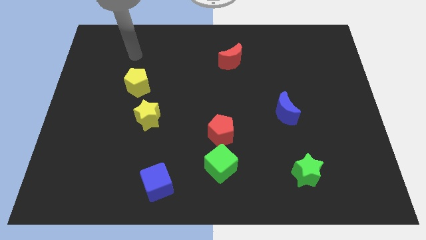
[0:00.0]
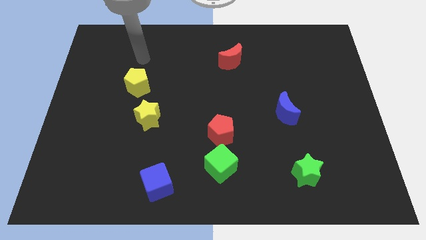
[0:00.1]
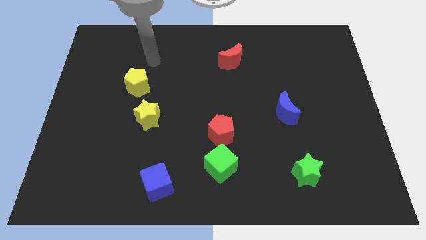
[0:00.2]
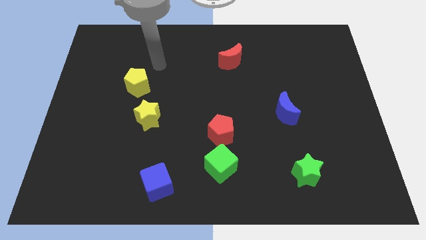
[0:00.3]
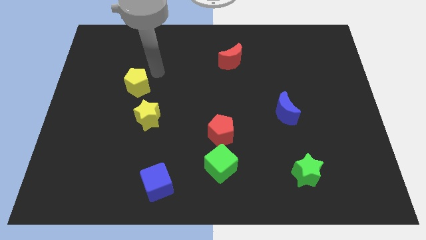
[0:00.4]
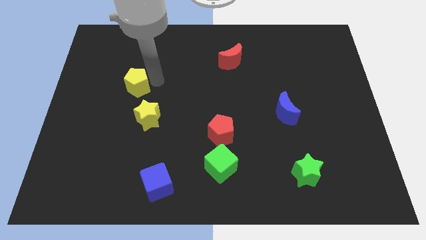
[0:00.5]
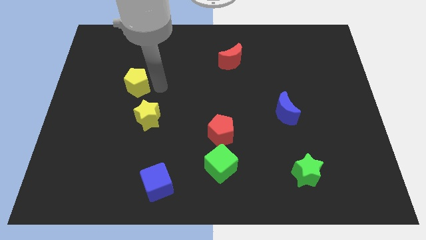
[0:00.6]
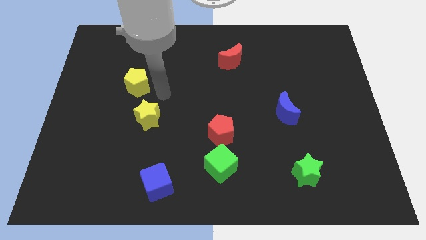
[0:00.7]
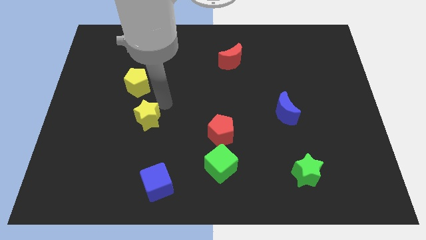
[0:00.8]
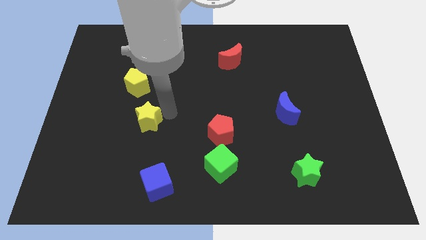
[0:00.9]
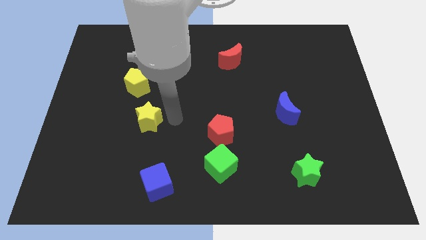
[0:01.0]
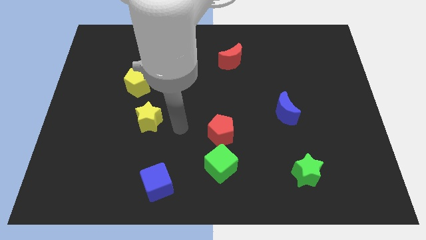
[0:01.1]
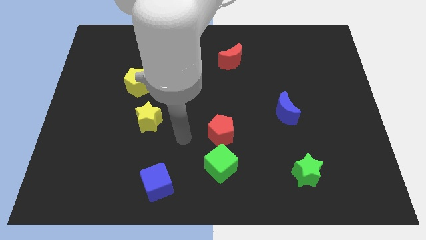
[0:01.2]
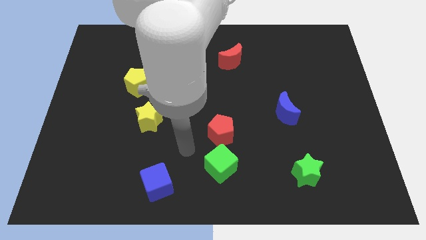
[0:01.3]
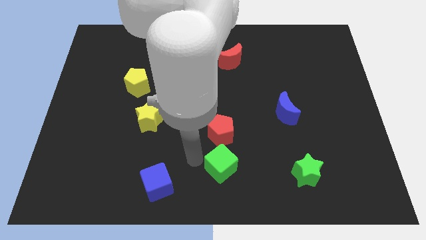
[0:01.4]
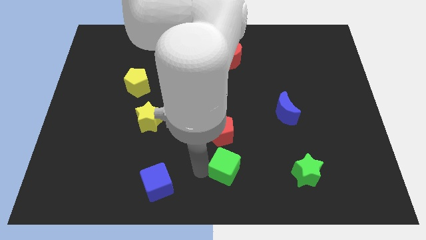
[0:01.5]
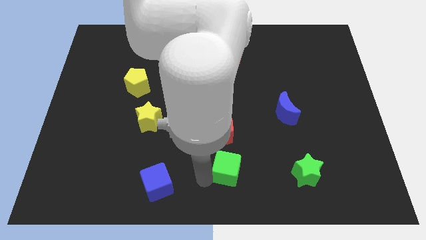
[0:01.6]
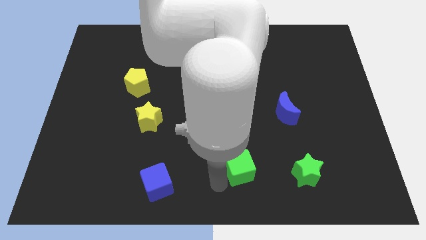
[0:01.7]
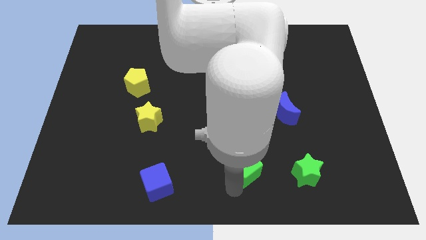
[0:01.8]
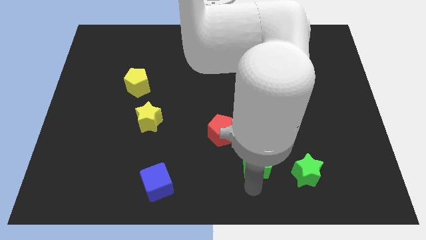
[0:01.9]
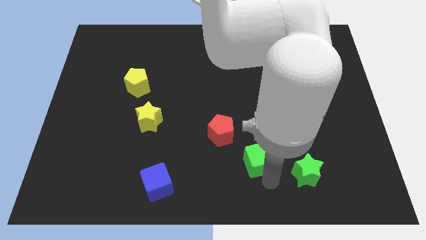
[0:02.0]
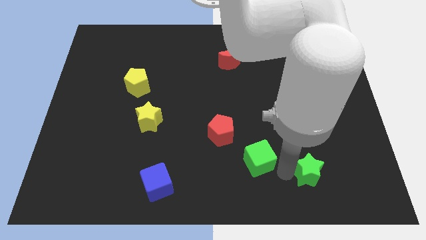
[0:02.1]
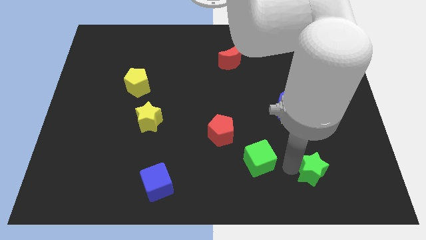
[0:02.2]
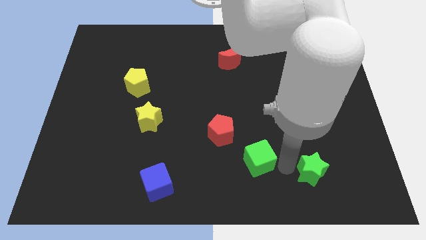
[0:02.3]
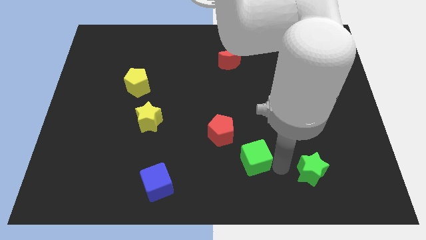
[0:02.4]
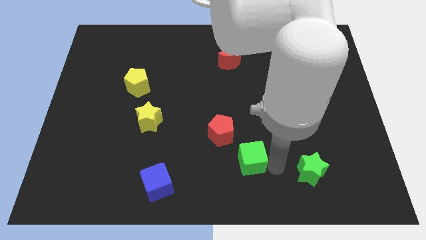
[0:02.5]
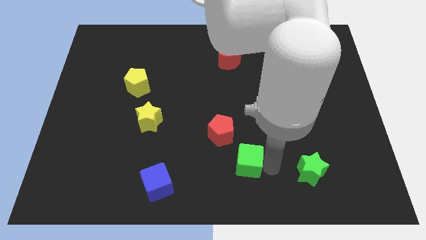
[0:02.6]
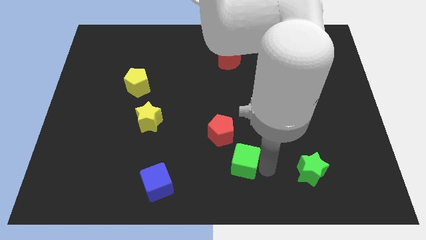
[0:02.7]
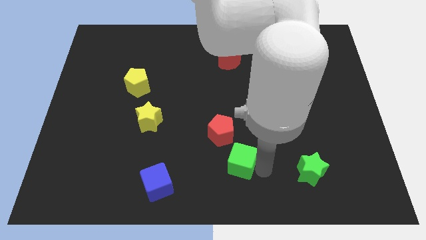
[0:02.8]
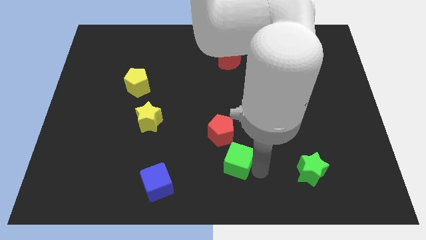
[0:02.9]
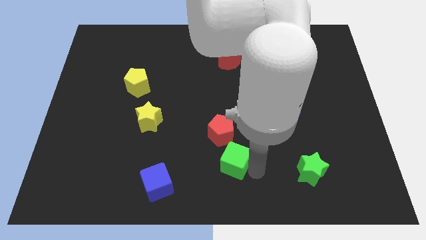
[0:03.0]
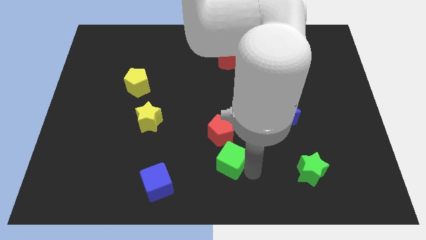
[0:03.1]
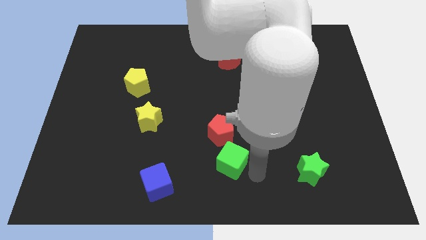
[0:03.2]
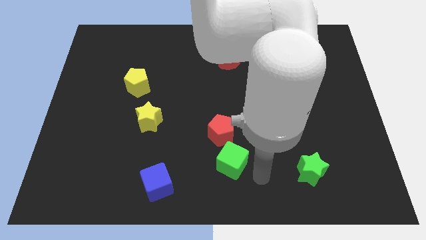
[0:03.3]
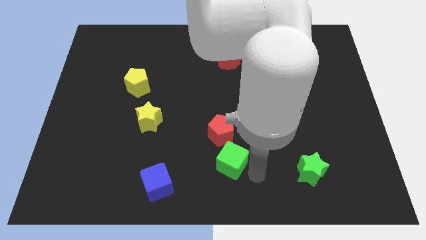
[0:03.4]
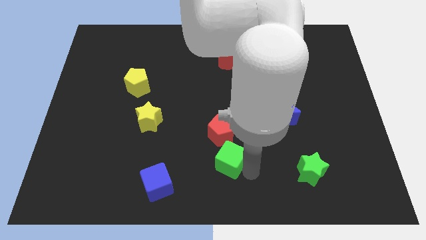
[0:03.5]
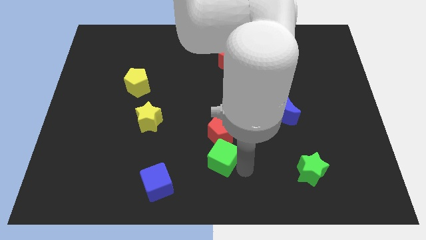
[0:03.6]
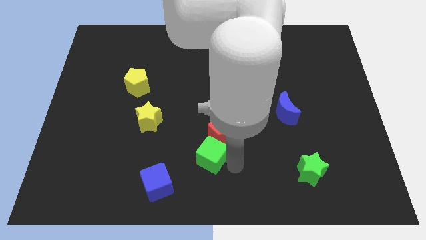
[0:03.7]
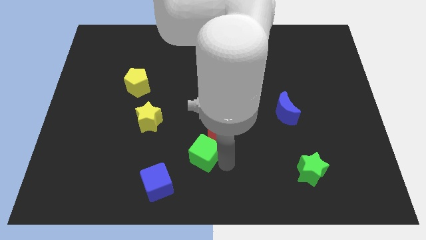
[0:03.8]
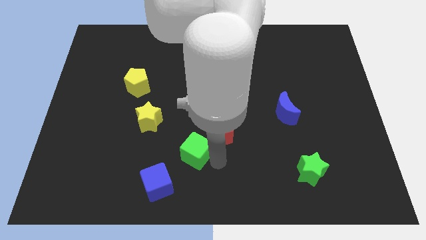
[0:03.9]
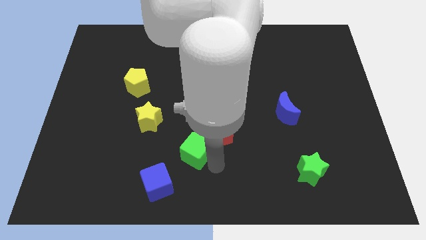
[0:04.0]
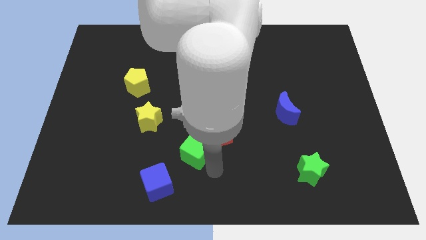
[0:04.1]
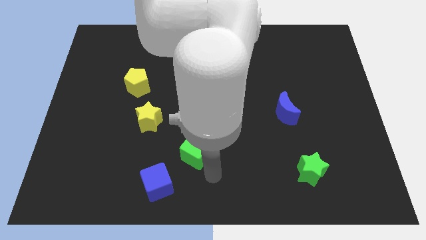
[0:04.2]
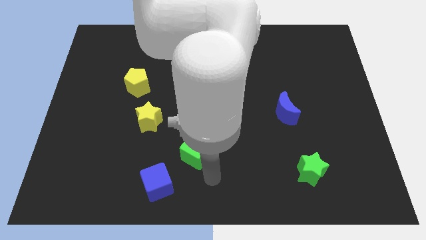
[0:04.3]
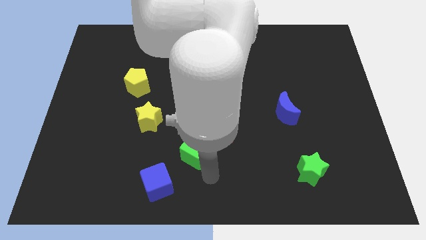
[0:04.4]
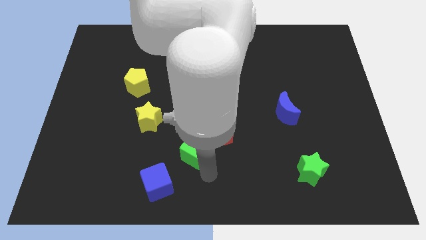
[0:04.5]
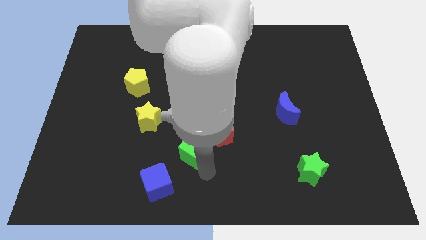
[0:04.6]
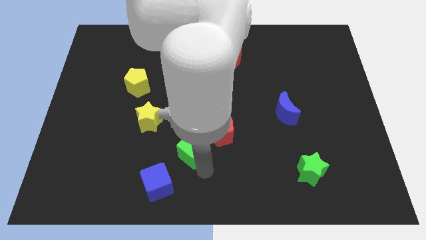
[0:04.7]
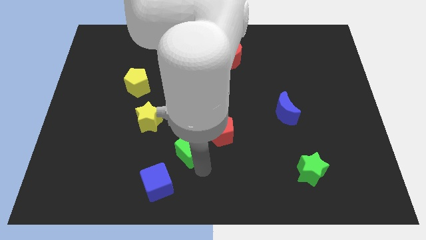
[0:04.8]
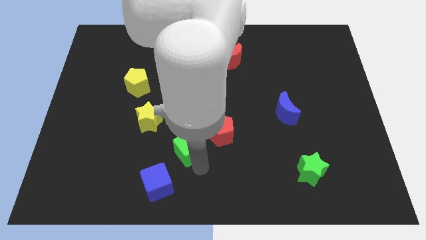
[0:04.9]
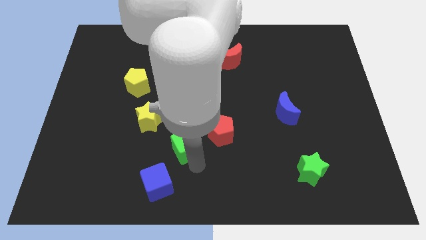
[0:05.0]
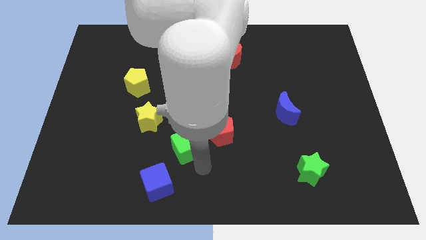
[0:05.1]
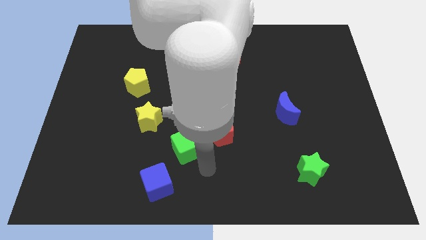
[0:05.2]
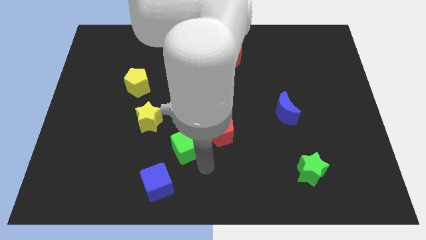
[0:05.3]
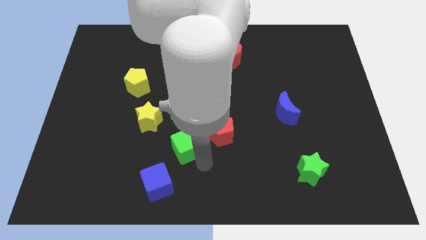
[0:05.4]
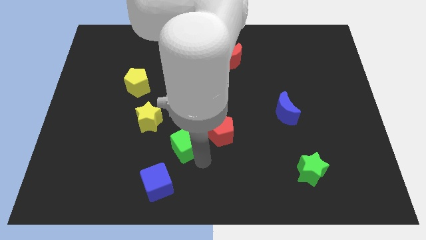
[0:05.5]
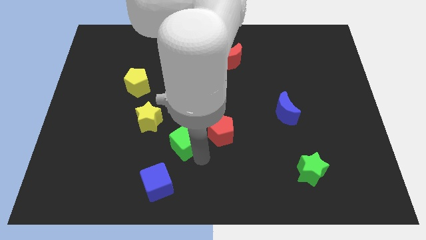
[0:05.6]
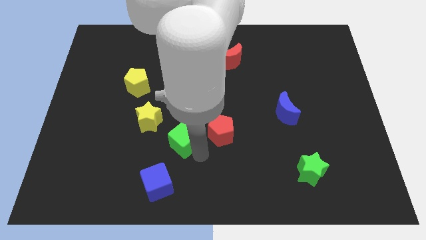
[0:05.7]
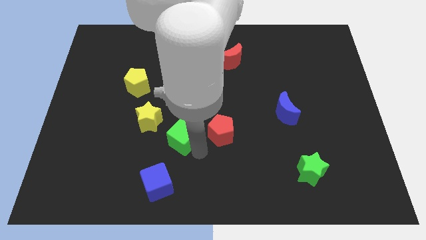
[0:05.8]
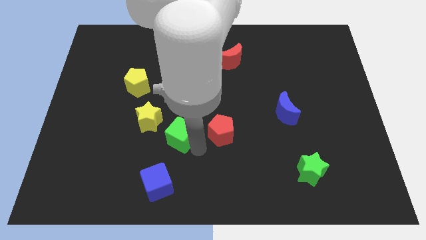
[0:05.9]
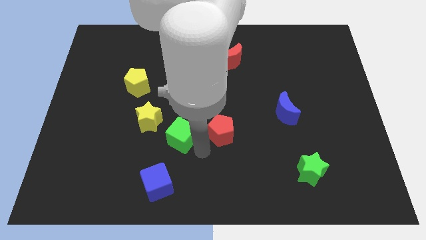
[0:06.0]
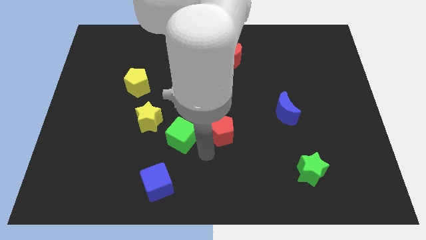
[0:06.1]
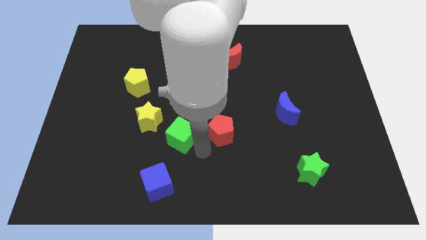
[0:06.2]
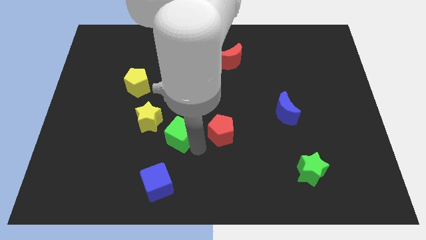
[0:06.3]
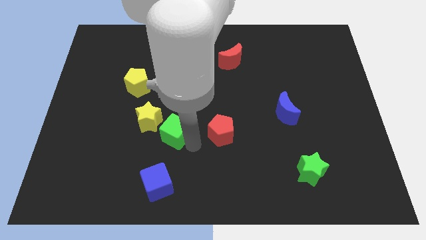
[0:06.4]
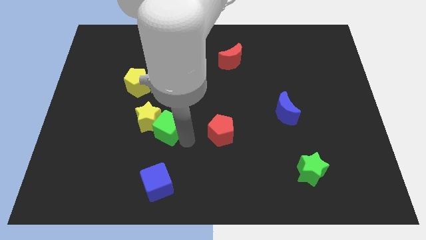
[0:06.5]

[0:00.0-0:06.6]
put the green cube close to the yellow star

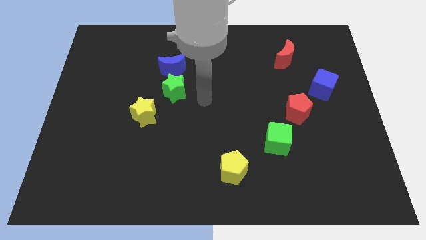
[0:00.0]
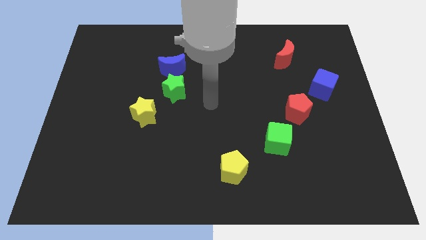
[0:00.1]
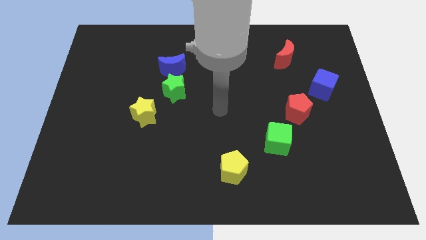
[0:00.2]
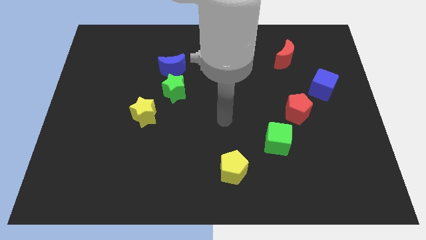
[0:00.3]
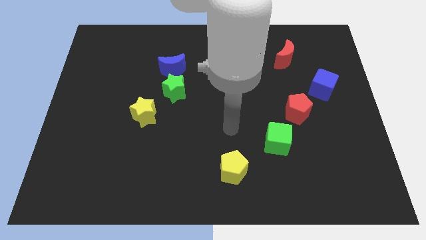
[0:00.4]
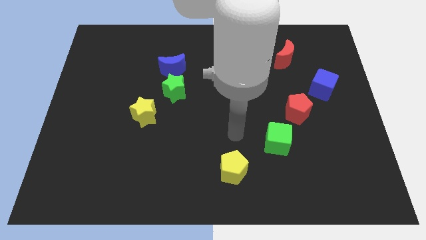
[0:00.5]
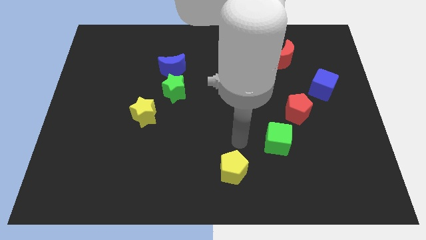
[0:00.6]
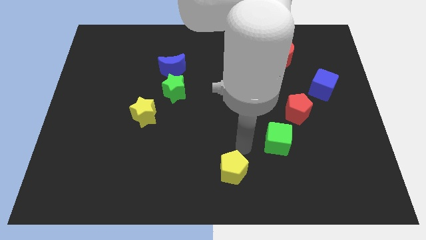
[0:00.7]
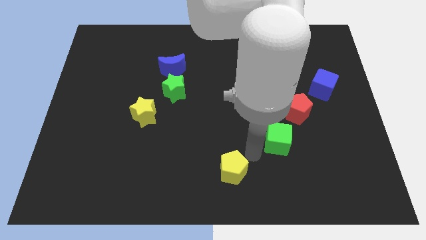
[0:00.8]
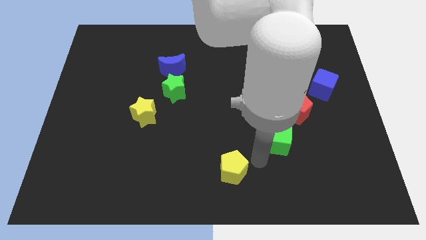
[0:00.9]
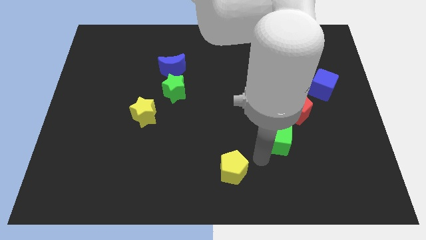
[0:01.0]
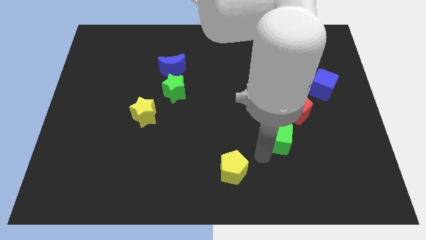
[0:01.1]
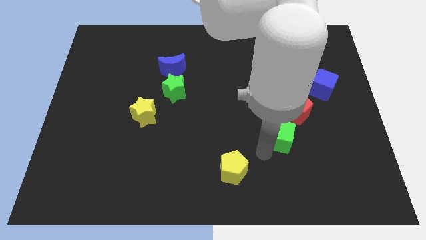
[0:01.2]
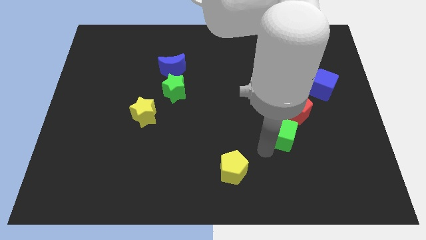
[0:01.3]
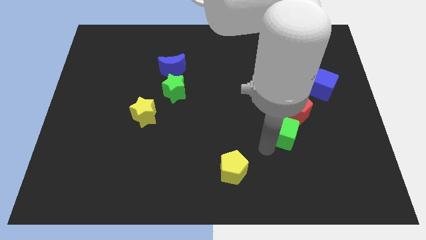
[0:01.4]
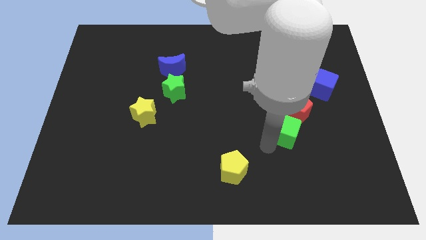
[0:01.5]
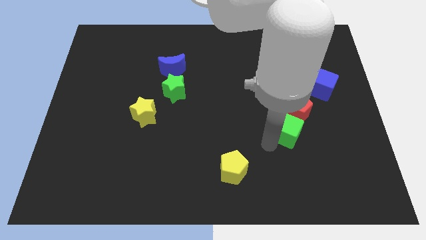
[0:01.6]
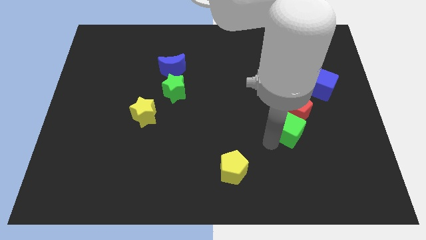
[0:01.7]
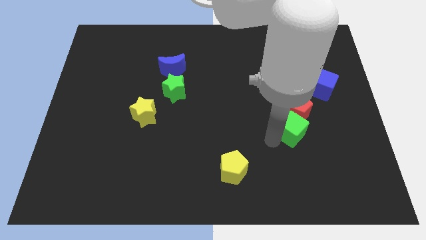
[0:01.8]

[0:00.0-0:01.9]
slide the green cube to the red pentagon
